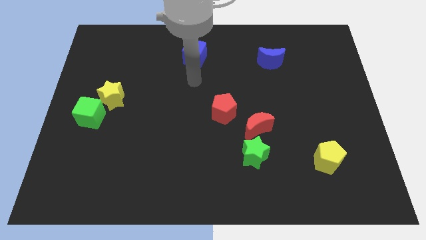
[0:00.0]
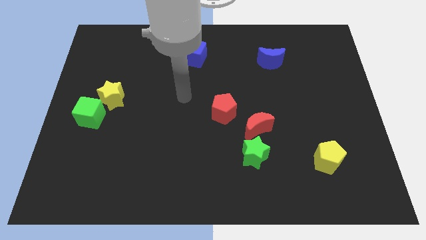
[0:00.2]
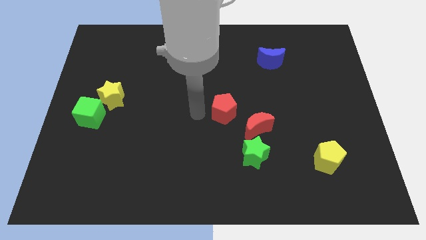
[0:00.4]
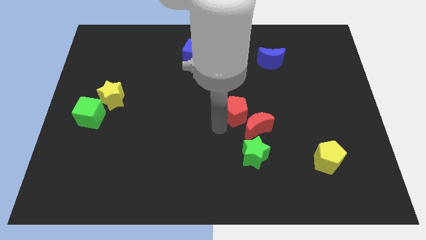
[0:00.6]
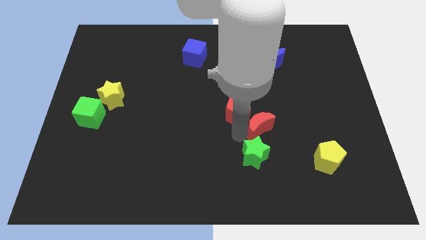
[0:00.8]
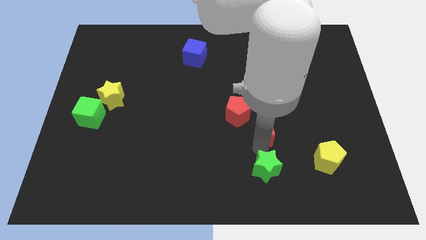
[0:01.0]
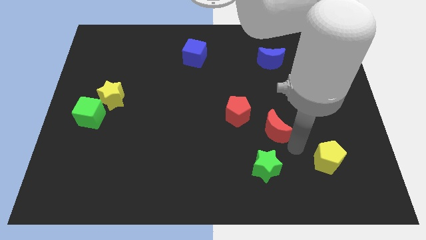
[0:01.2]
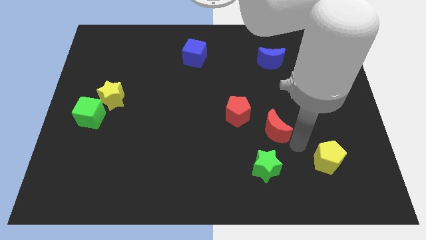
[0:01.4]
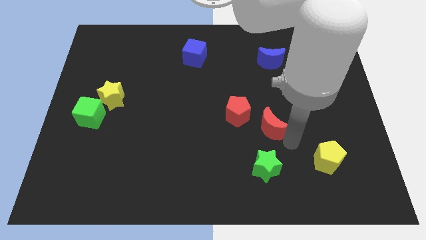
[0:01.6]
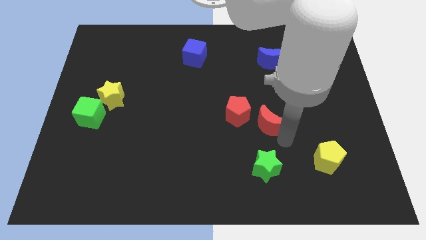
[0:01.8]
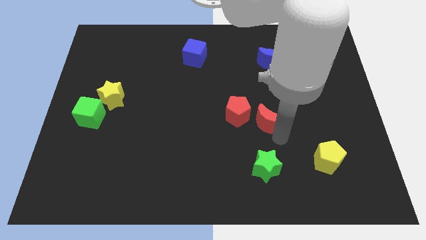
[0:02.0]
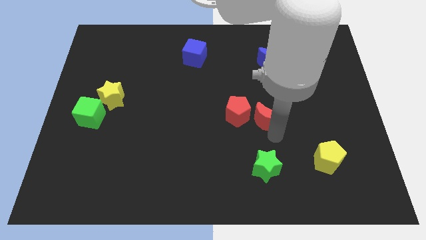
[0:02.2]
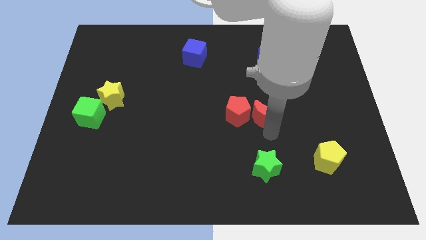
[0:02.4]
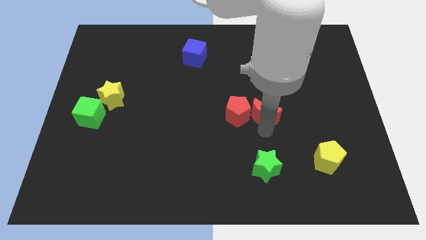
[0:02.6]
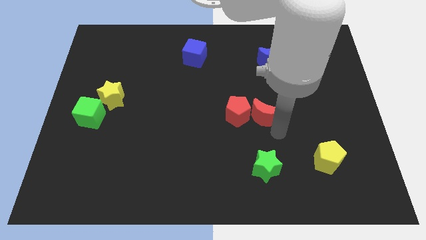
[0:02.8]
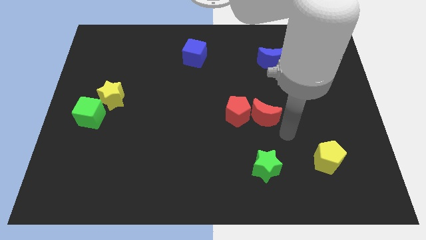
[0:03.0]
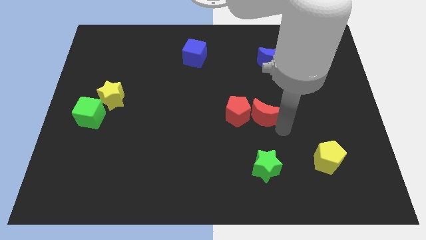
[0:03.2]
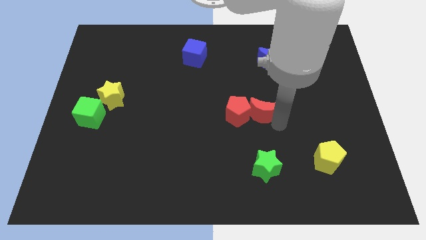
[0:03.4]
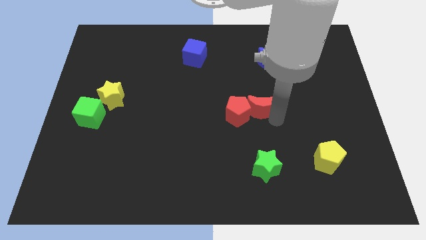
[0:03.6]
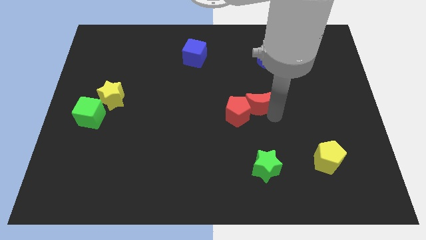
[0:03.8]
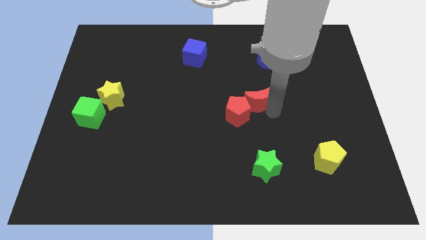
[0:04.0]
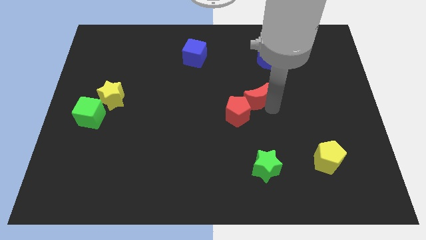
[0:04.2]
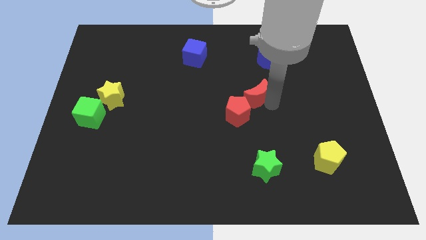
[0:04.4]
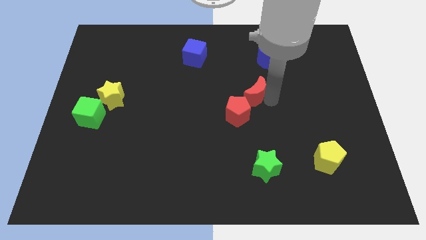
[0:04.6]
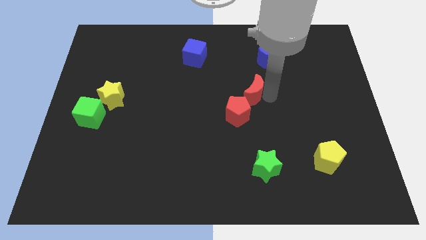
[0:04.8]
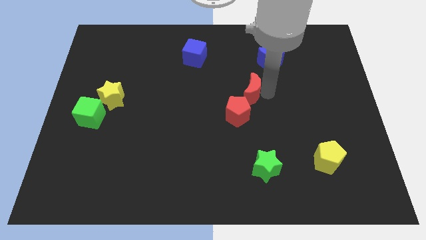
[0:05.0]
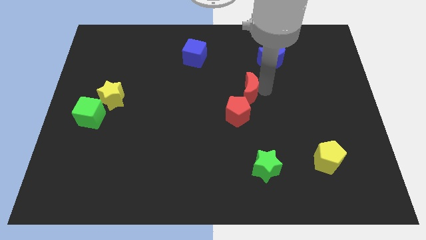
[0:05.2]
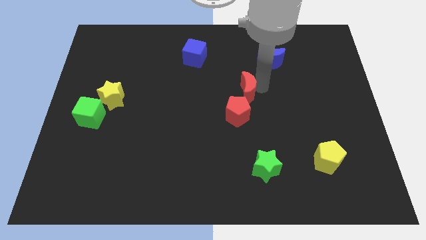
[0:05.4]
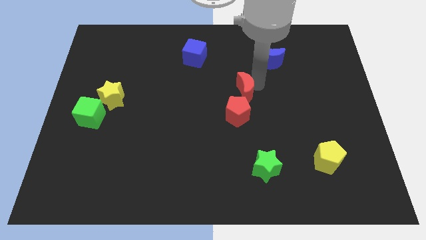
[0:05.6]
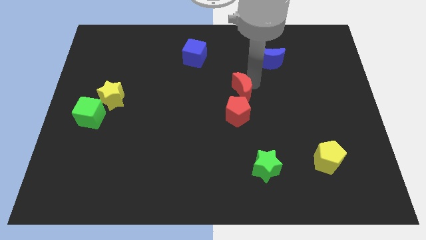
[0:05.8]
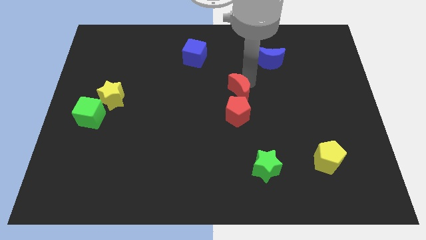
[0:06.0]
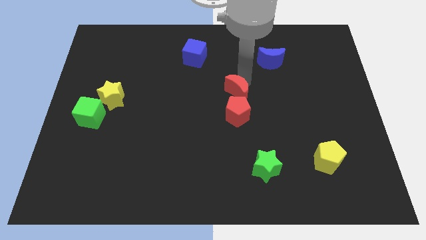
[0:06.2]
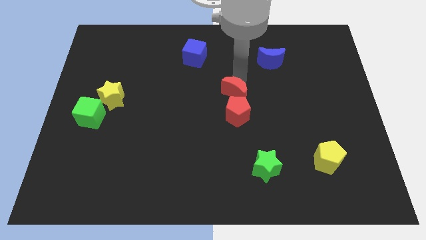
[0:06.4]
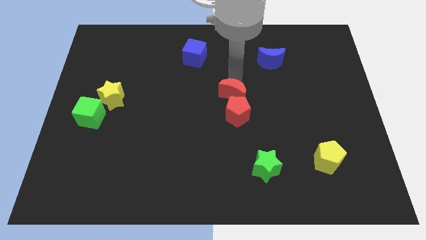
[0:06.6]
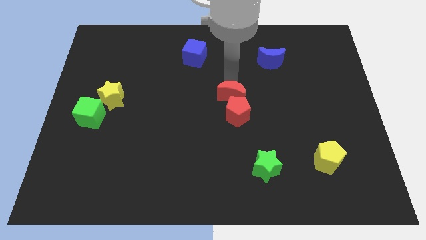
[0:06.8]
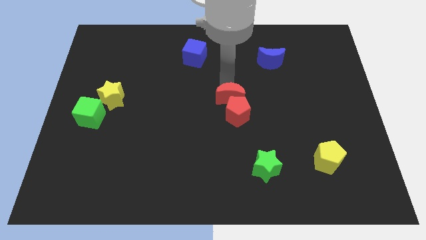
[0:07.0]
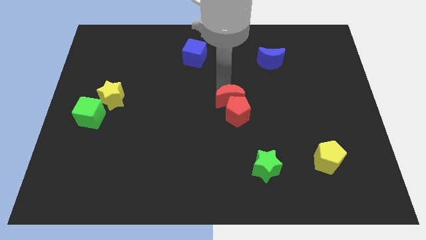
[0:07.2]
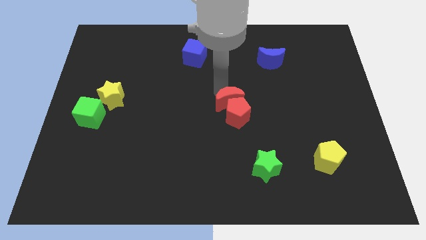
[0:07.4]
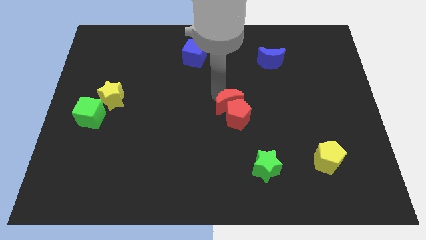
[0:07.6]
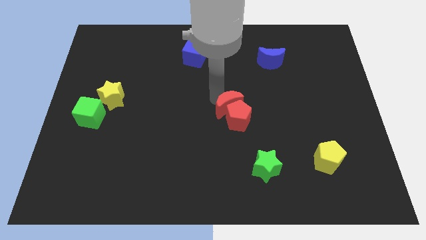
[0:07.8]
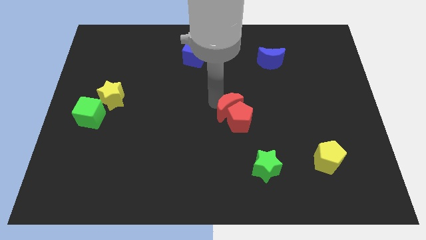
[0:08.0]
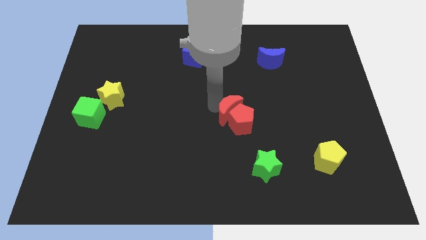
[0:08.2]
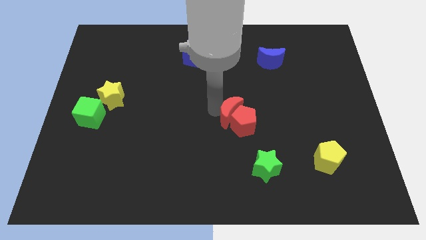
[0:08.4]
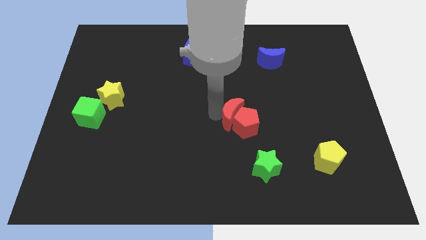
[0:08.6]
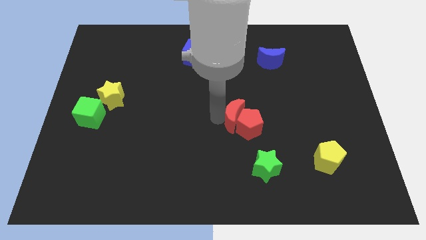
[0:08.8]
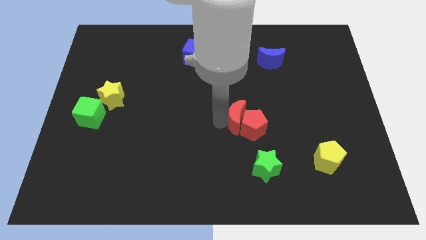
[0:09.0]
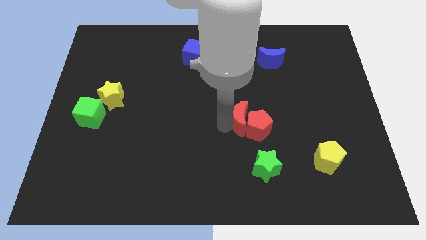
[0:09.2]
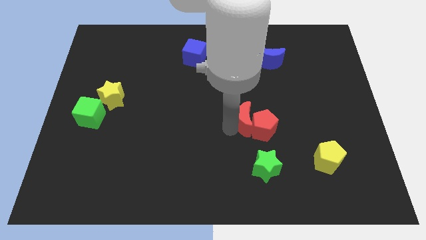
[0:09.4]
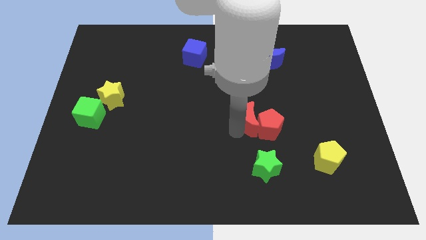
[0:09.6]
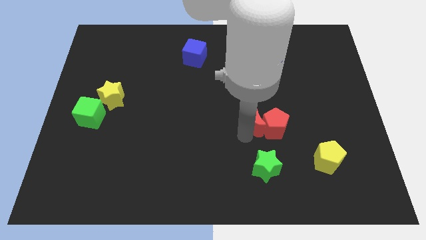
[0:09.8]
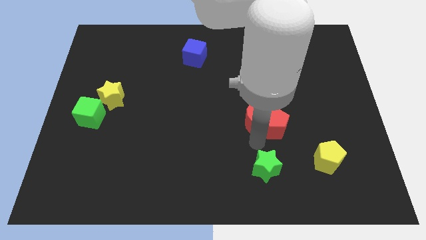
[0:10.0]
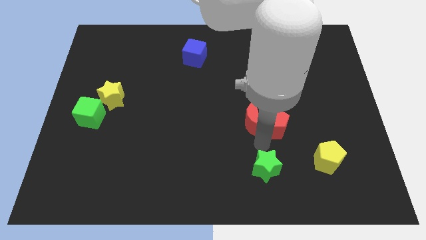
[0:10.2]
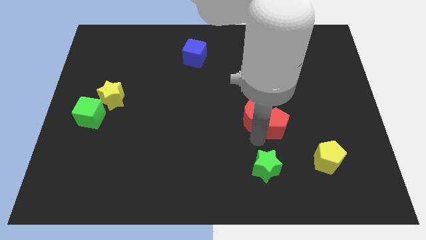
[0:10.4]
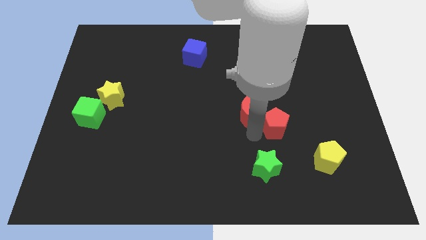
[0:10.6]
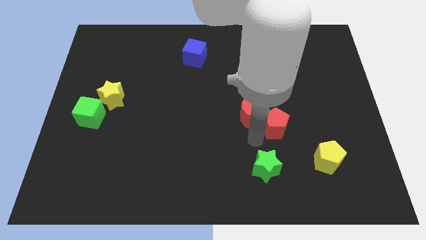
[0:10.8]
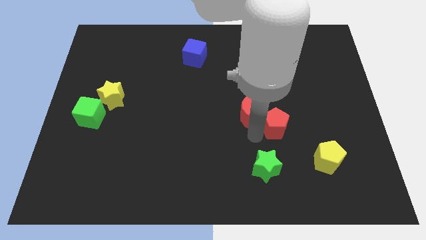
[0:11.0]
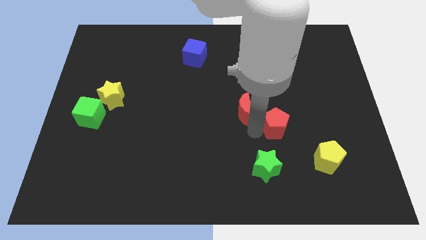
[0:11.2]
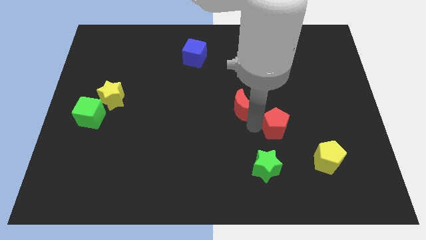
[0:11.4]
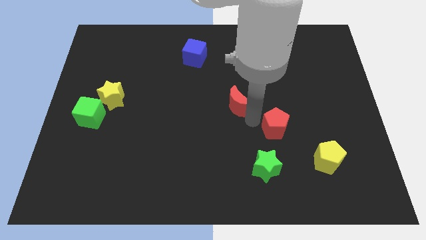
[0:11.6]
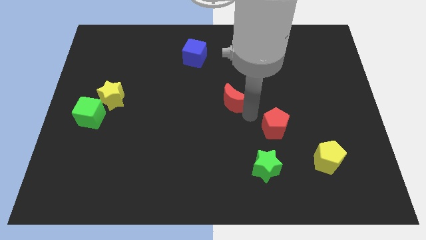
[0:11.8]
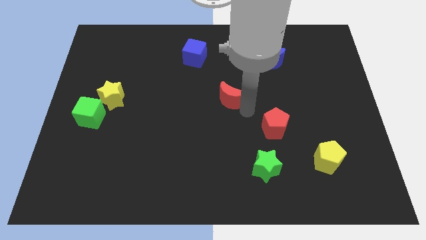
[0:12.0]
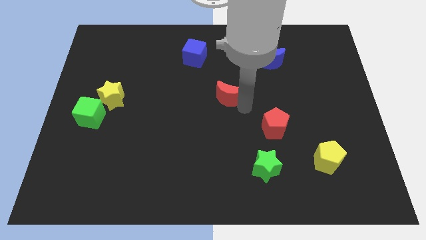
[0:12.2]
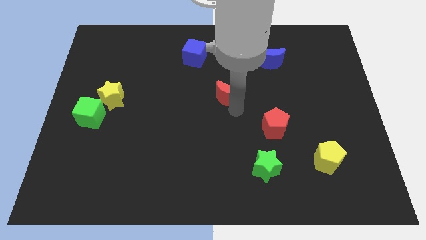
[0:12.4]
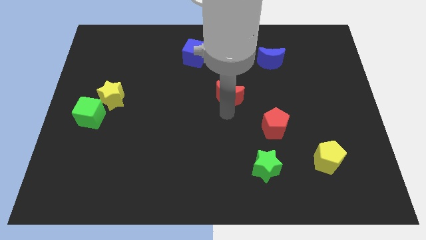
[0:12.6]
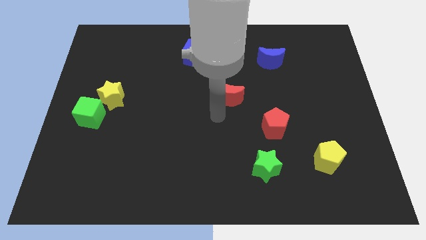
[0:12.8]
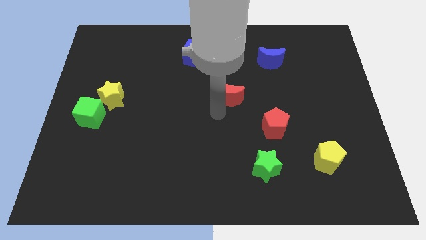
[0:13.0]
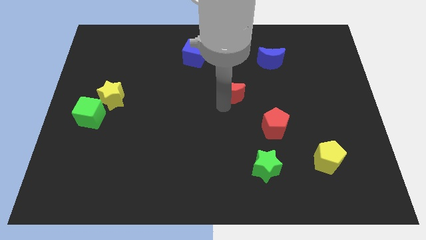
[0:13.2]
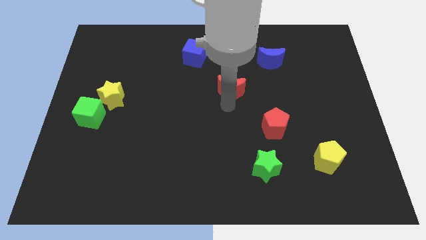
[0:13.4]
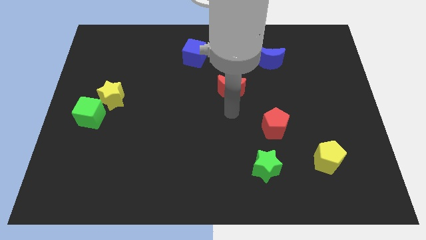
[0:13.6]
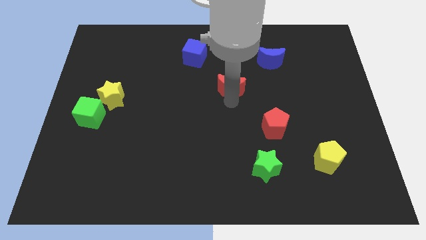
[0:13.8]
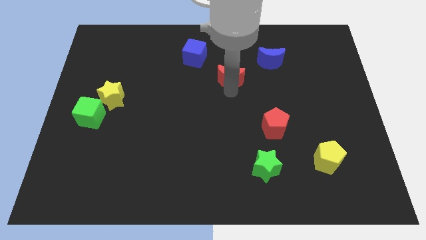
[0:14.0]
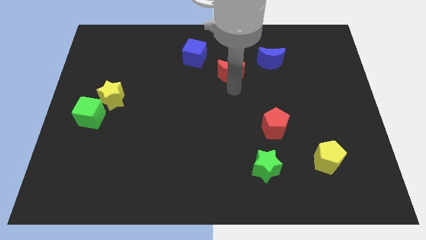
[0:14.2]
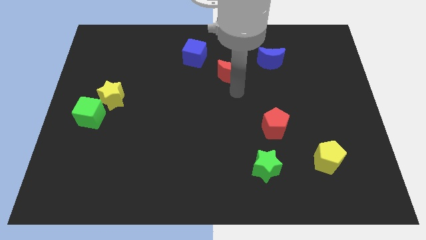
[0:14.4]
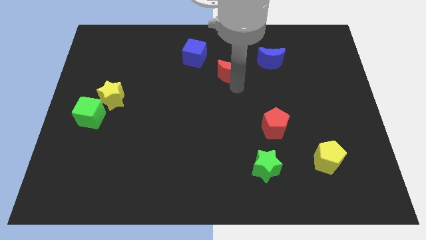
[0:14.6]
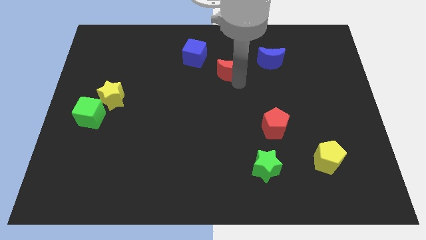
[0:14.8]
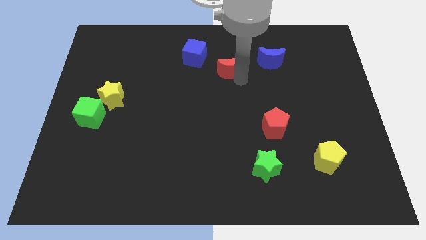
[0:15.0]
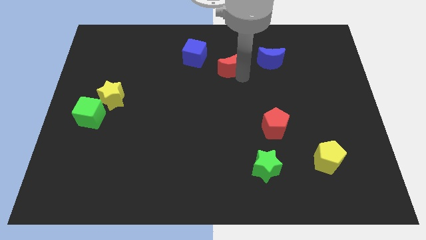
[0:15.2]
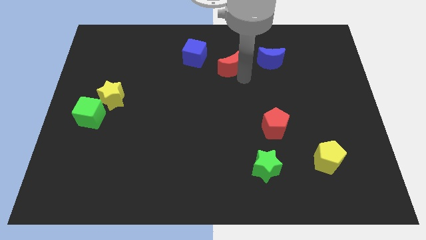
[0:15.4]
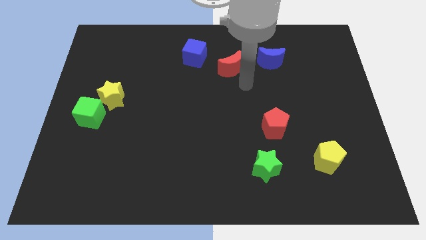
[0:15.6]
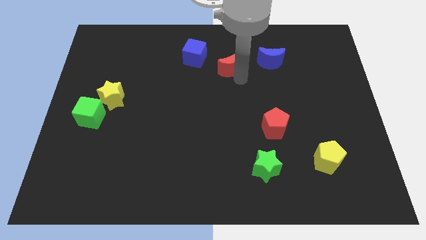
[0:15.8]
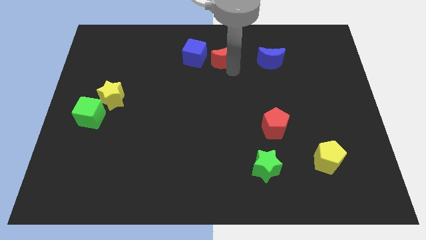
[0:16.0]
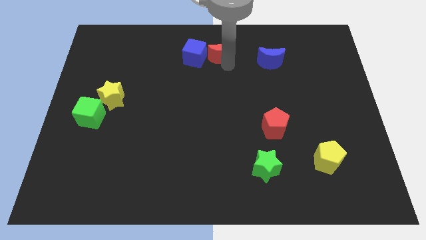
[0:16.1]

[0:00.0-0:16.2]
put the red moon to the top side
